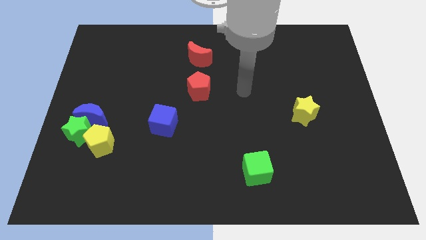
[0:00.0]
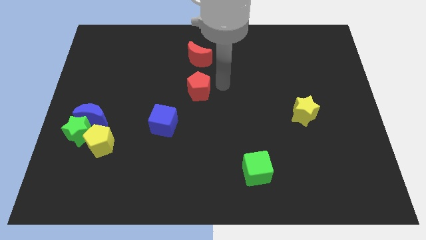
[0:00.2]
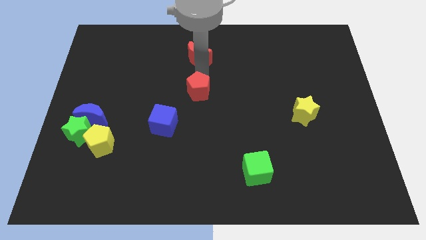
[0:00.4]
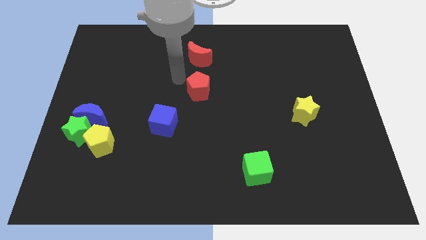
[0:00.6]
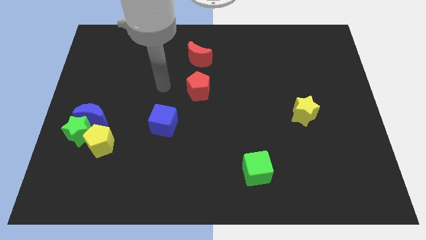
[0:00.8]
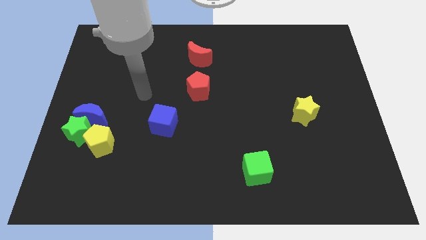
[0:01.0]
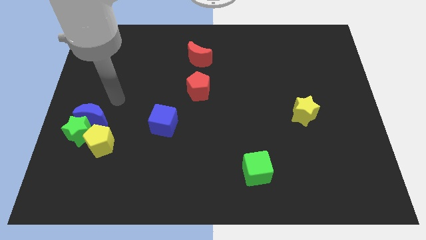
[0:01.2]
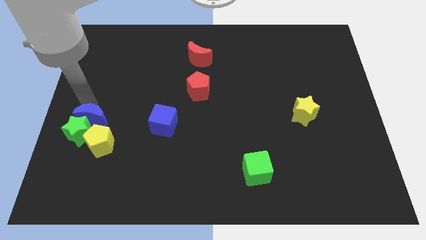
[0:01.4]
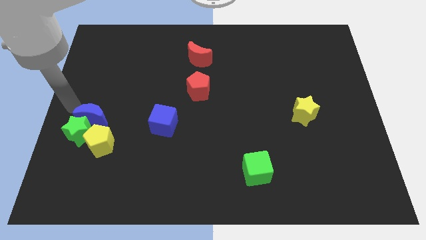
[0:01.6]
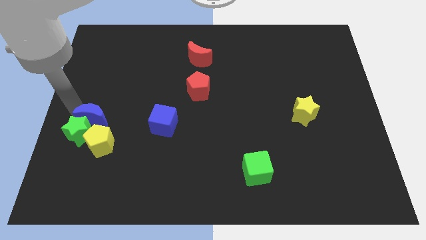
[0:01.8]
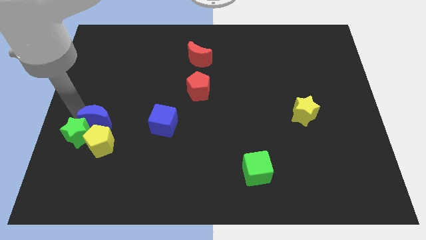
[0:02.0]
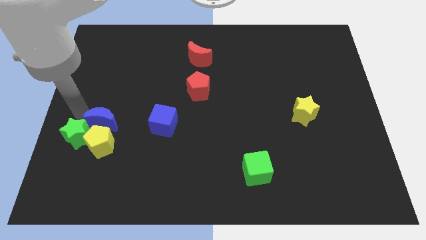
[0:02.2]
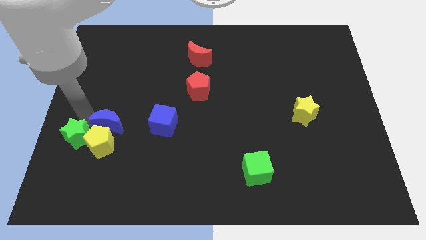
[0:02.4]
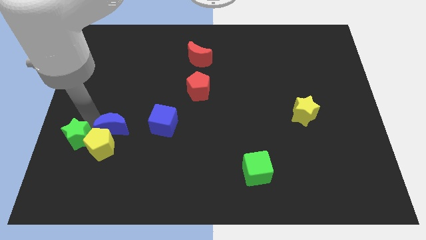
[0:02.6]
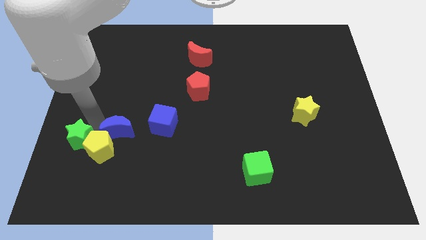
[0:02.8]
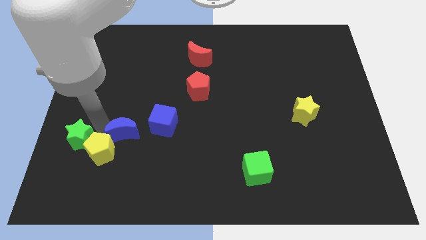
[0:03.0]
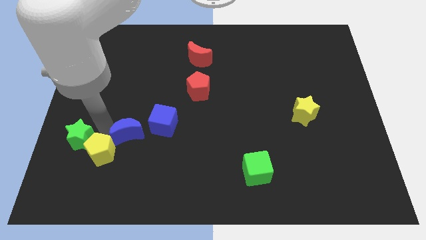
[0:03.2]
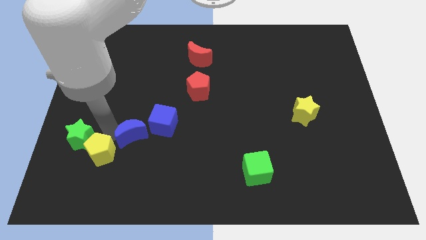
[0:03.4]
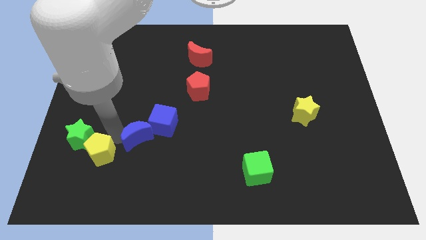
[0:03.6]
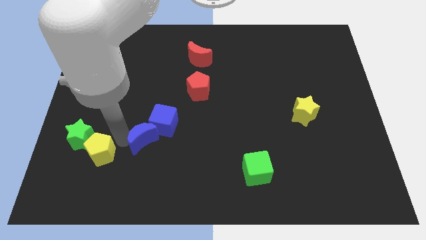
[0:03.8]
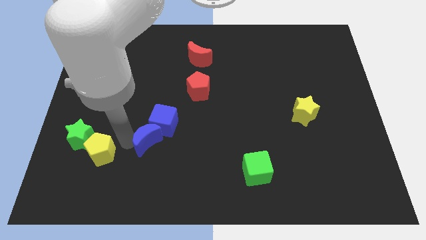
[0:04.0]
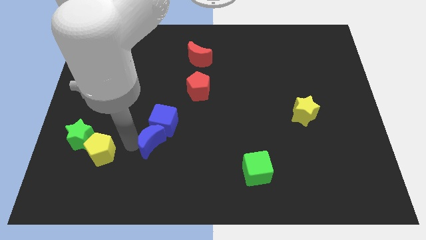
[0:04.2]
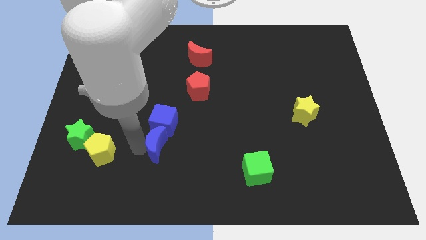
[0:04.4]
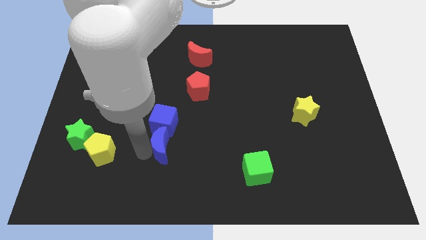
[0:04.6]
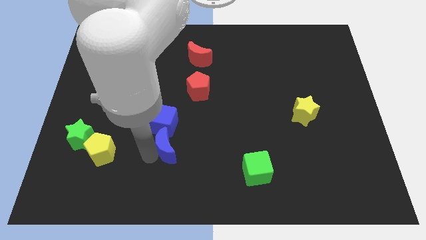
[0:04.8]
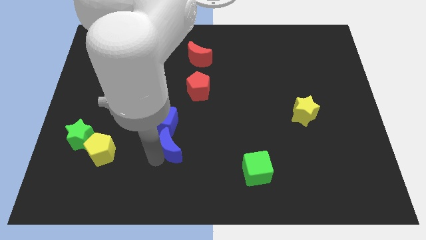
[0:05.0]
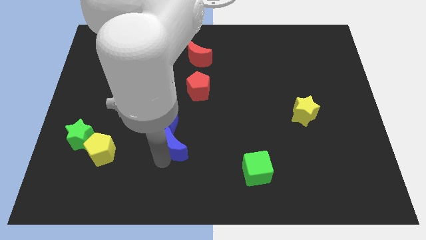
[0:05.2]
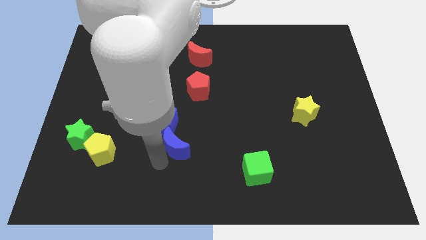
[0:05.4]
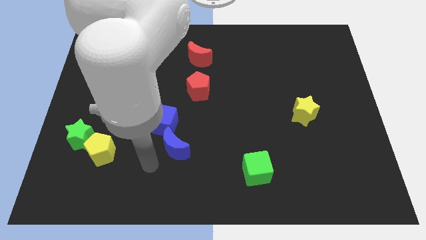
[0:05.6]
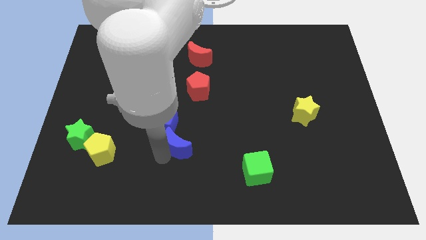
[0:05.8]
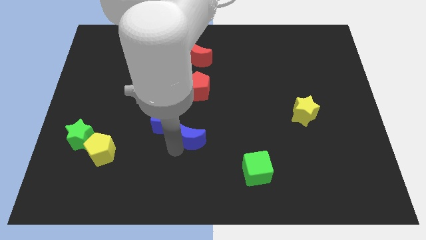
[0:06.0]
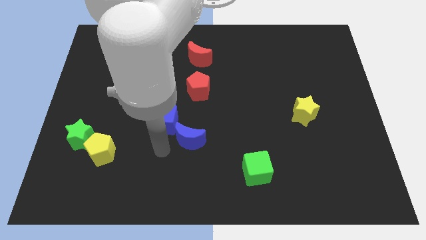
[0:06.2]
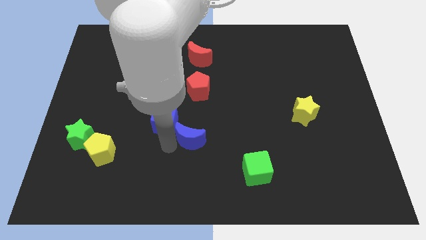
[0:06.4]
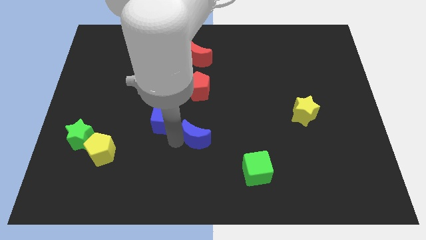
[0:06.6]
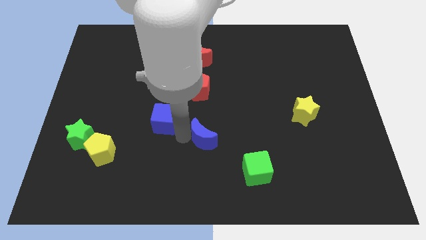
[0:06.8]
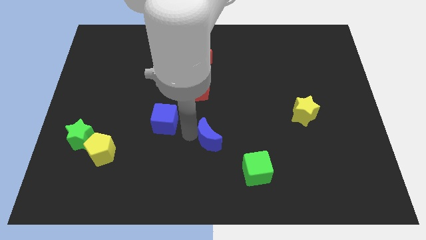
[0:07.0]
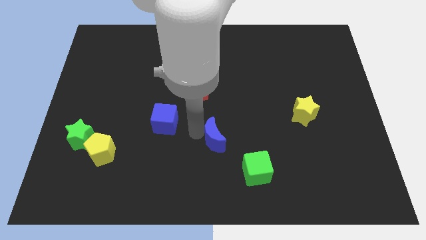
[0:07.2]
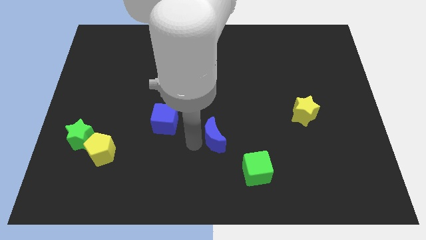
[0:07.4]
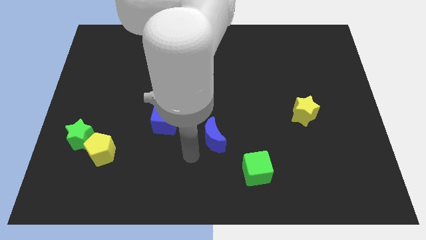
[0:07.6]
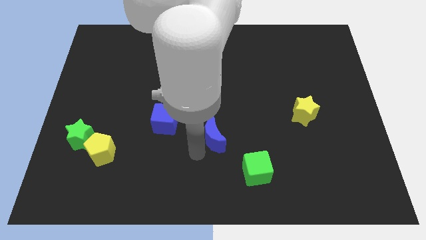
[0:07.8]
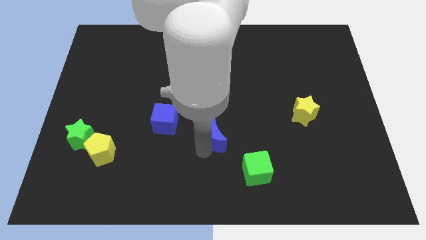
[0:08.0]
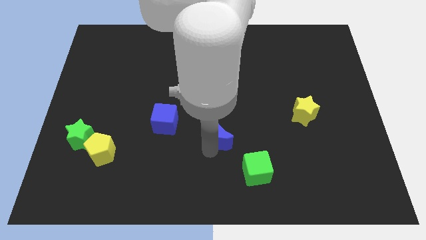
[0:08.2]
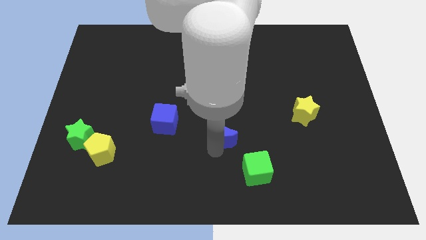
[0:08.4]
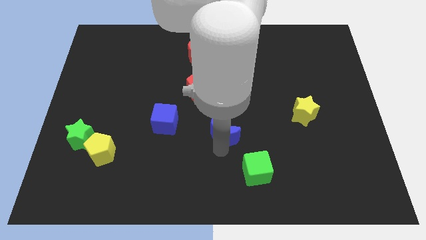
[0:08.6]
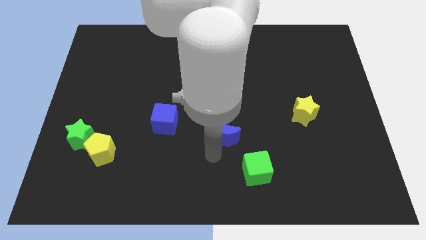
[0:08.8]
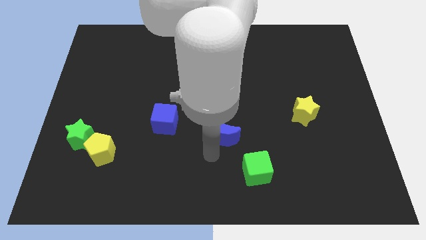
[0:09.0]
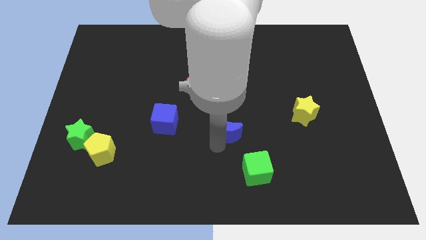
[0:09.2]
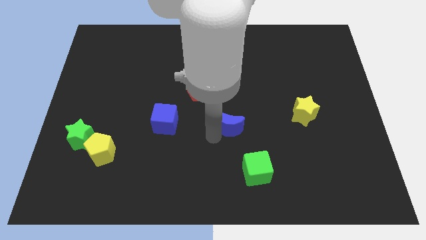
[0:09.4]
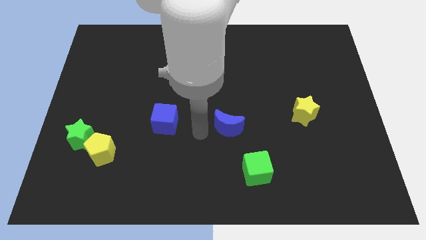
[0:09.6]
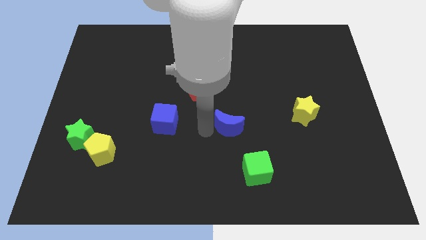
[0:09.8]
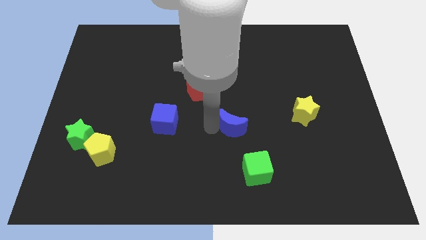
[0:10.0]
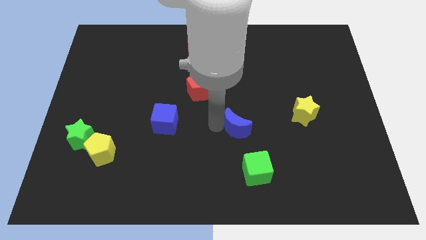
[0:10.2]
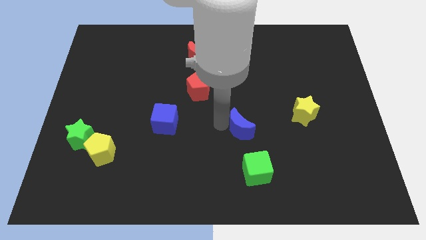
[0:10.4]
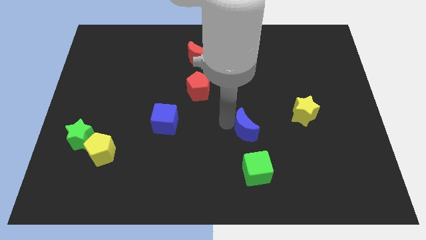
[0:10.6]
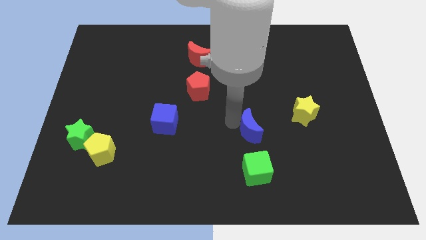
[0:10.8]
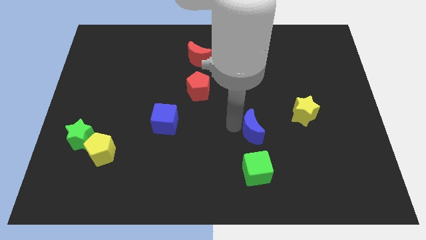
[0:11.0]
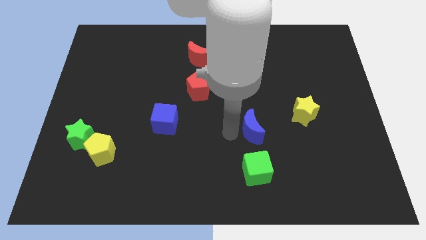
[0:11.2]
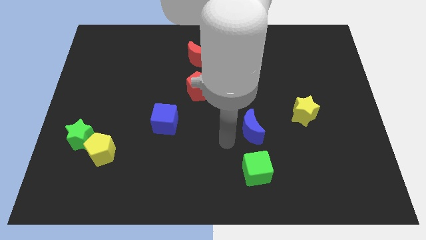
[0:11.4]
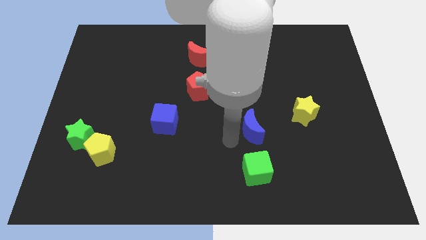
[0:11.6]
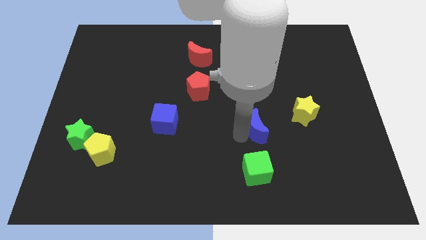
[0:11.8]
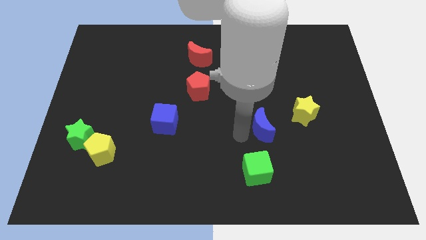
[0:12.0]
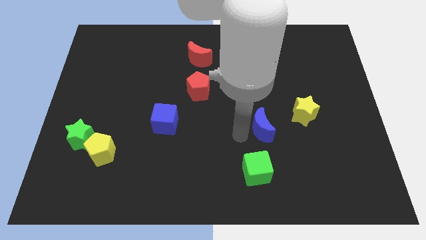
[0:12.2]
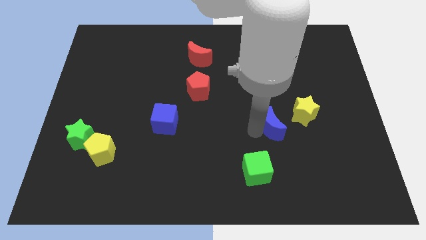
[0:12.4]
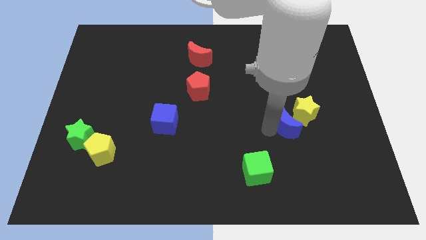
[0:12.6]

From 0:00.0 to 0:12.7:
push the blue moon towards the yellow star

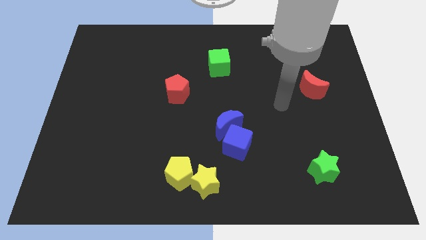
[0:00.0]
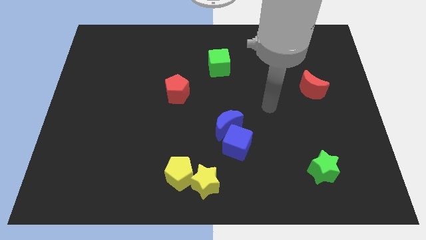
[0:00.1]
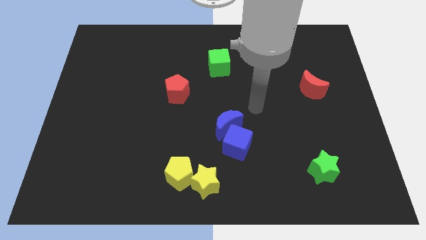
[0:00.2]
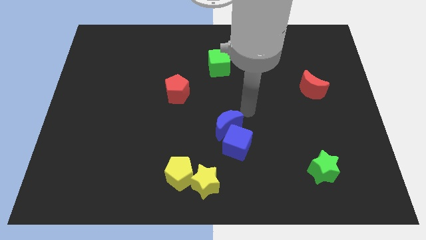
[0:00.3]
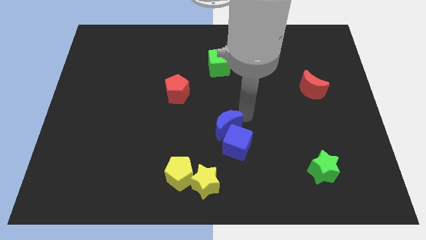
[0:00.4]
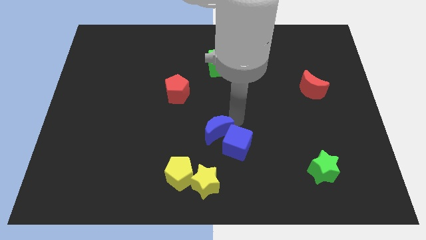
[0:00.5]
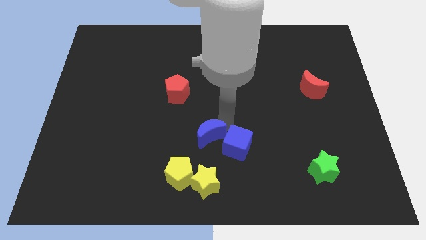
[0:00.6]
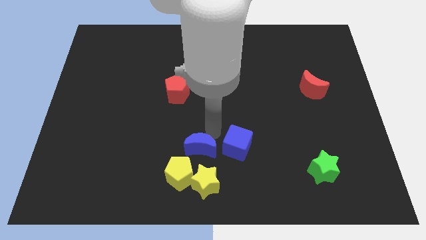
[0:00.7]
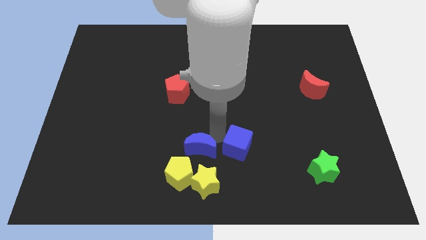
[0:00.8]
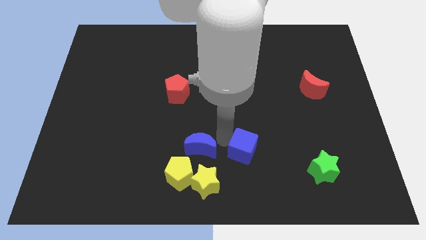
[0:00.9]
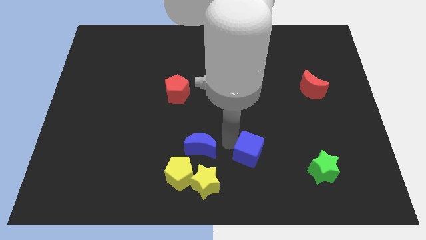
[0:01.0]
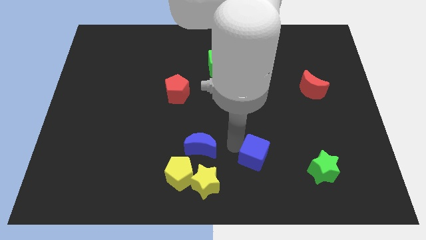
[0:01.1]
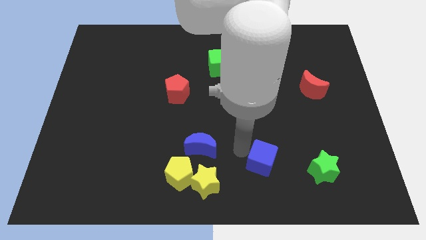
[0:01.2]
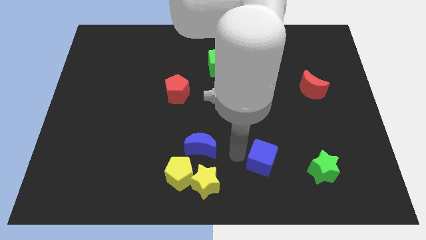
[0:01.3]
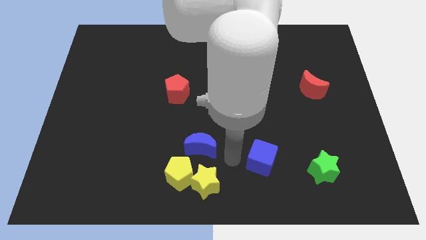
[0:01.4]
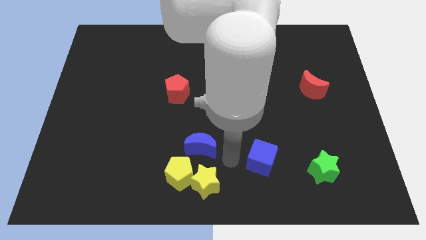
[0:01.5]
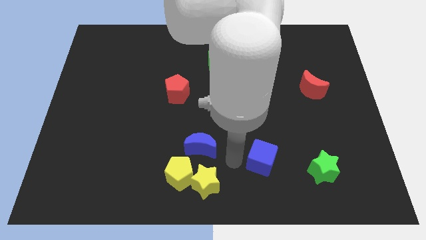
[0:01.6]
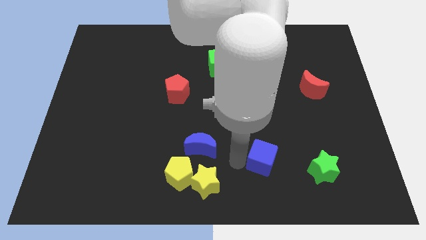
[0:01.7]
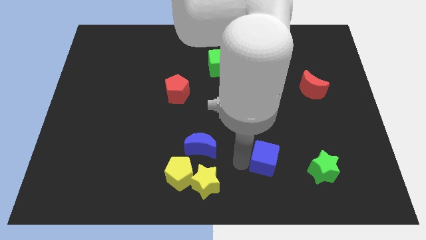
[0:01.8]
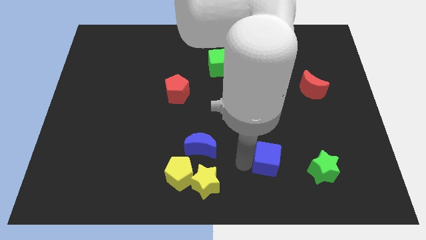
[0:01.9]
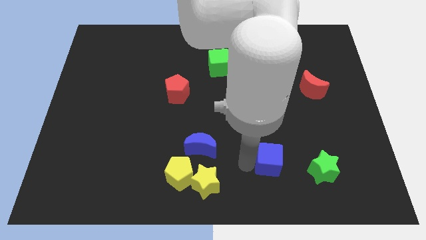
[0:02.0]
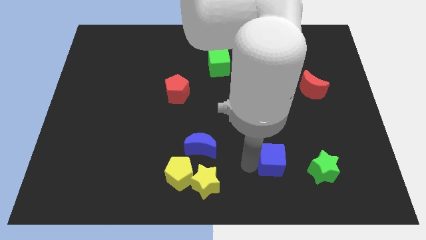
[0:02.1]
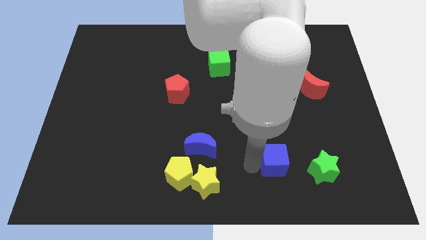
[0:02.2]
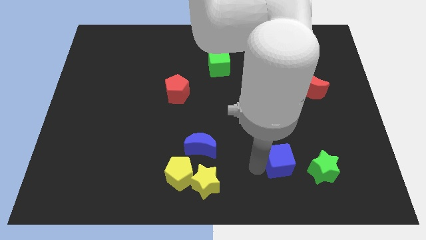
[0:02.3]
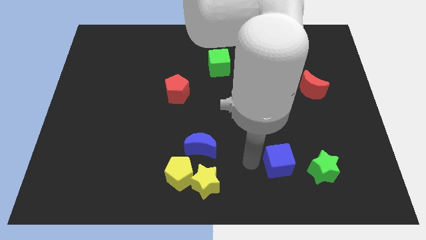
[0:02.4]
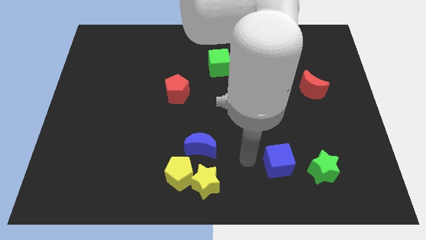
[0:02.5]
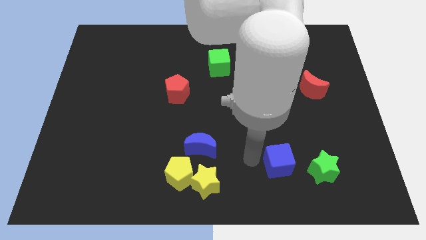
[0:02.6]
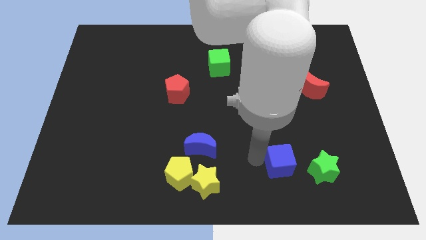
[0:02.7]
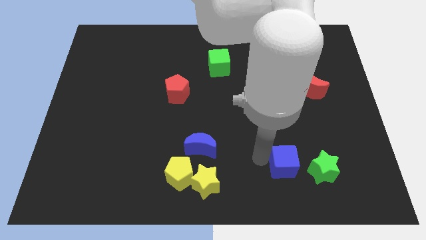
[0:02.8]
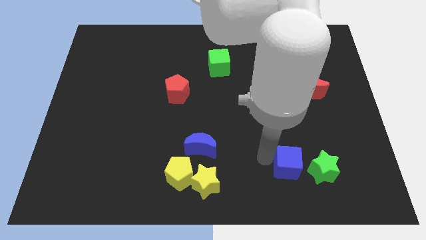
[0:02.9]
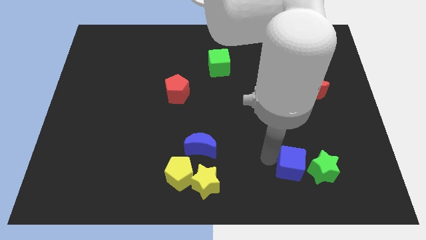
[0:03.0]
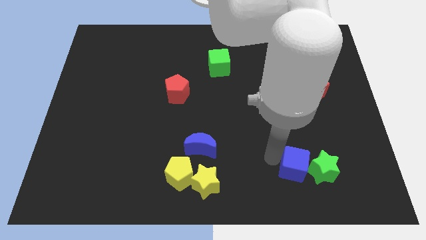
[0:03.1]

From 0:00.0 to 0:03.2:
push the blue cube to the green star
